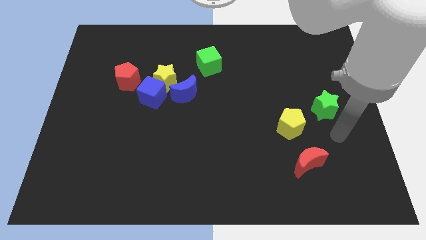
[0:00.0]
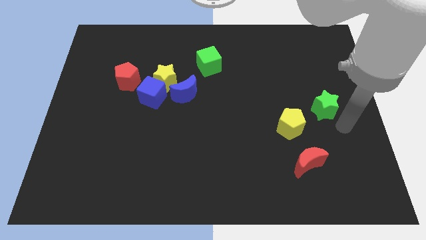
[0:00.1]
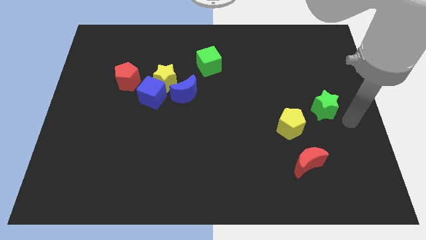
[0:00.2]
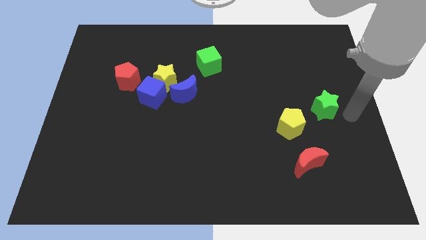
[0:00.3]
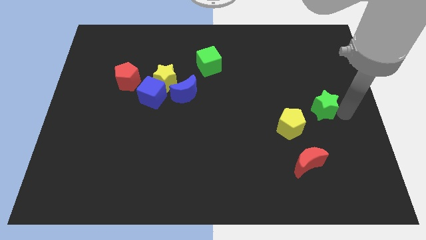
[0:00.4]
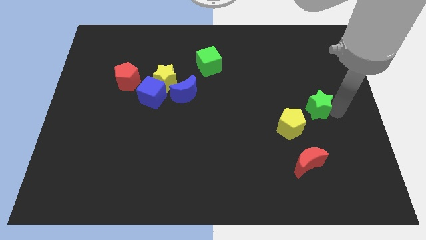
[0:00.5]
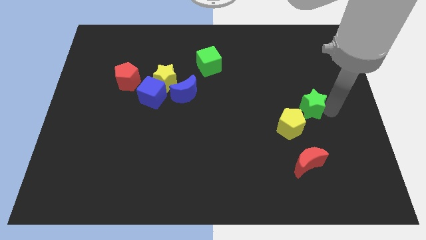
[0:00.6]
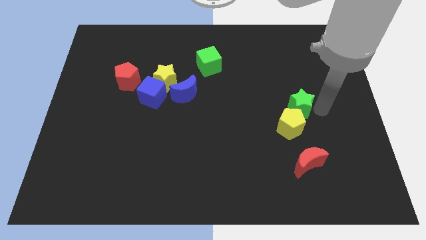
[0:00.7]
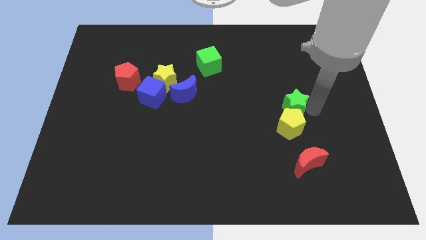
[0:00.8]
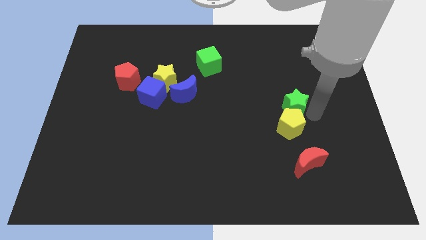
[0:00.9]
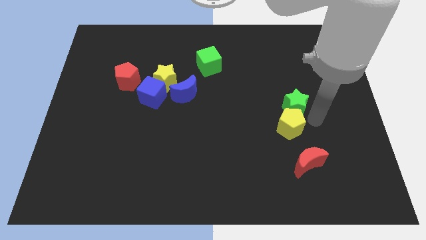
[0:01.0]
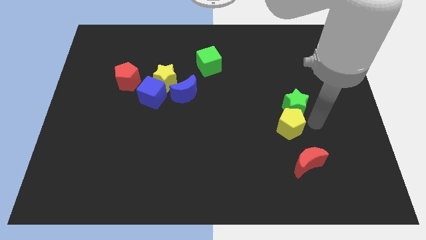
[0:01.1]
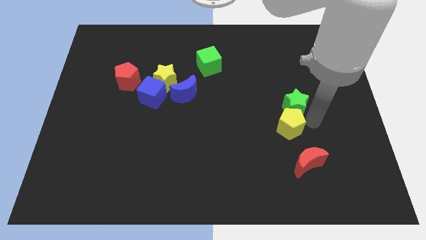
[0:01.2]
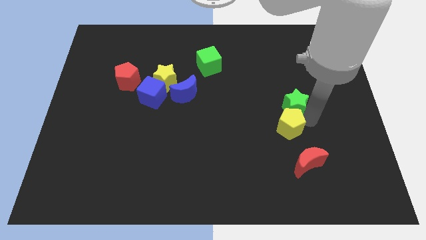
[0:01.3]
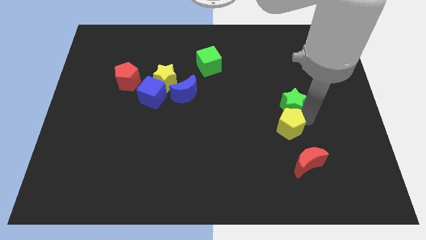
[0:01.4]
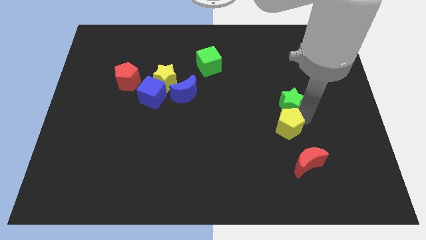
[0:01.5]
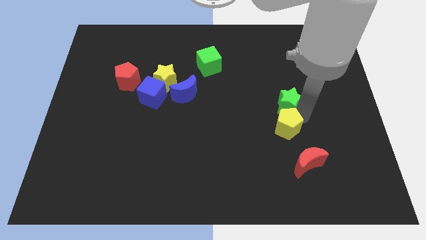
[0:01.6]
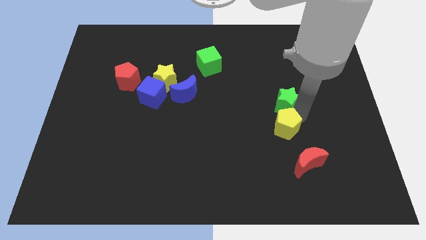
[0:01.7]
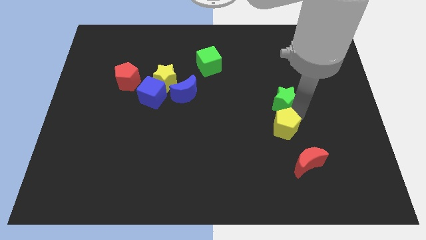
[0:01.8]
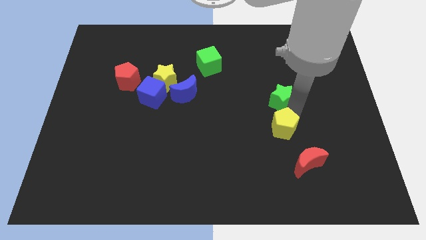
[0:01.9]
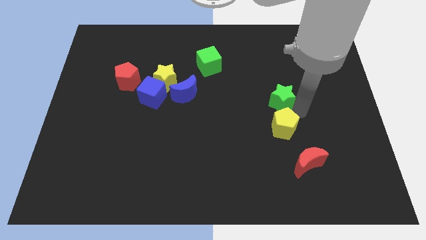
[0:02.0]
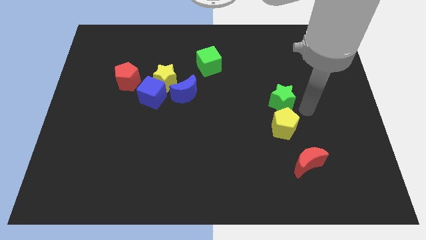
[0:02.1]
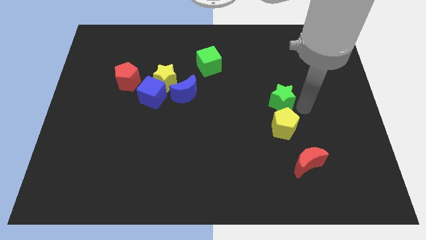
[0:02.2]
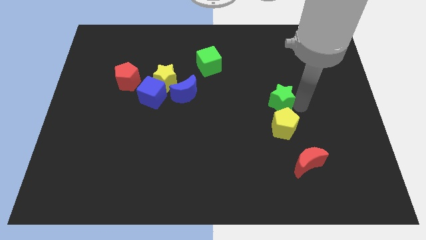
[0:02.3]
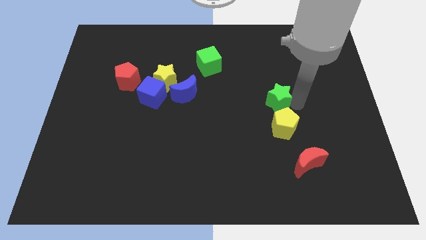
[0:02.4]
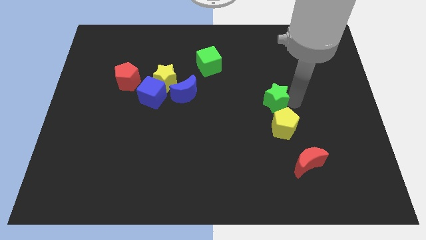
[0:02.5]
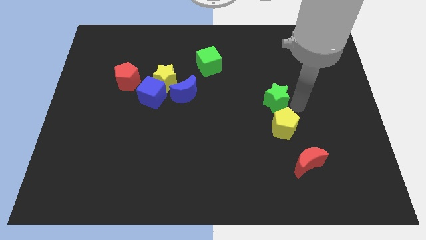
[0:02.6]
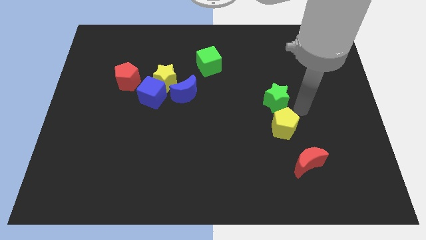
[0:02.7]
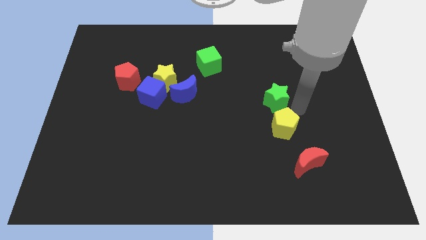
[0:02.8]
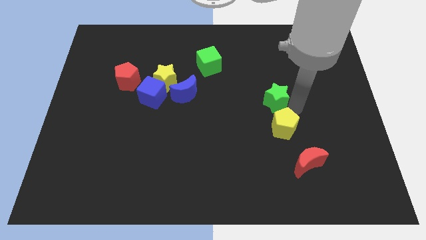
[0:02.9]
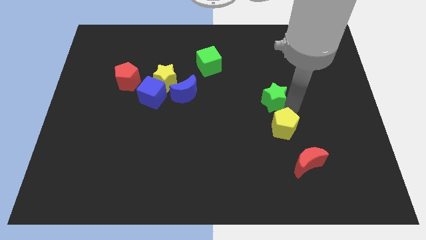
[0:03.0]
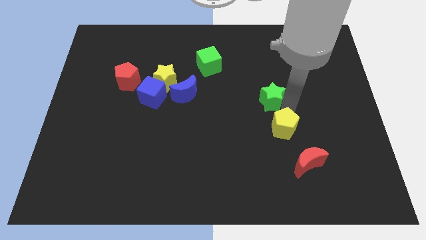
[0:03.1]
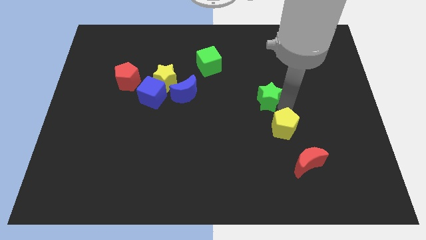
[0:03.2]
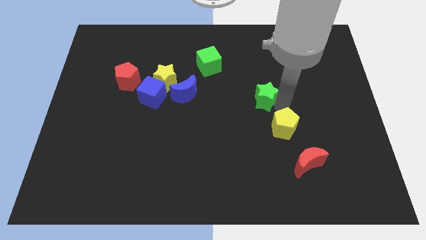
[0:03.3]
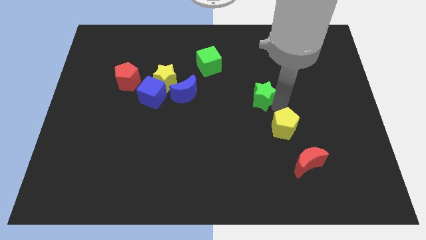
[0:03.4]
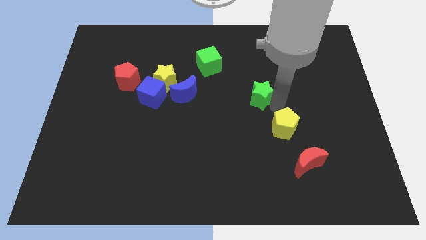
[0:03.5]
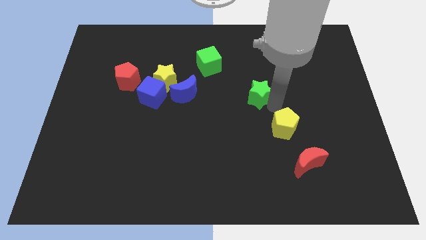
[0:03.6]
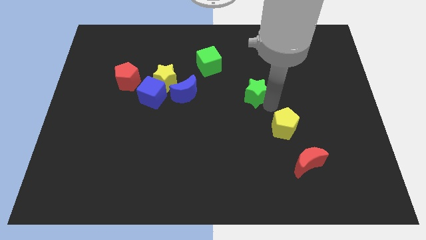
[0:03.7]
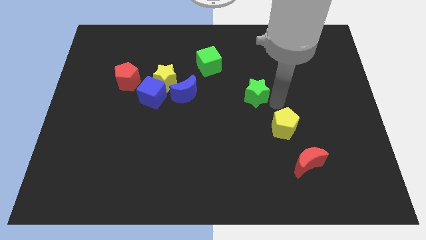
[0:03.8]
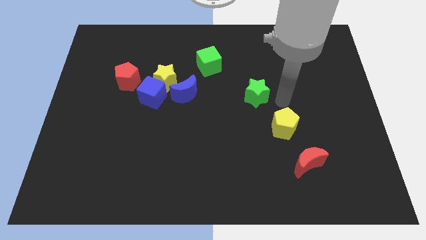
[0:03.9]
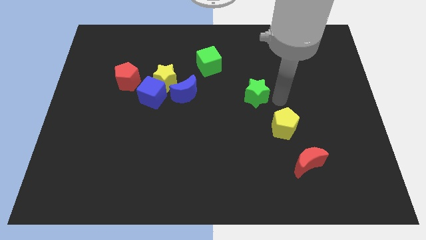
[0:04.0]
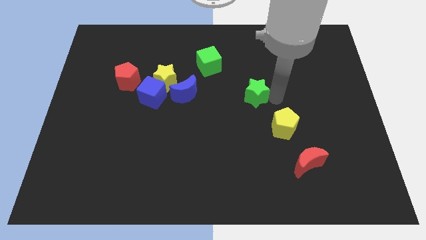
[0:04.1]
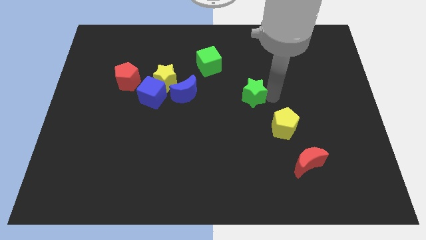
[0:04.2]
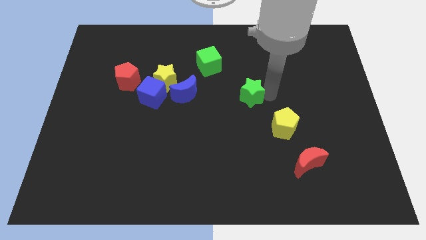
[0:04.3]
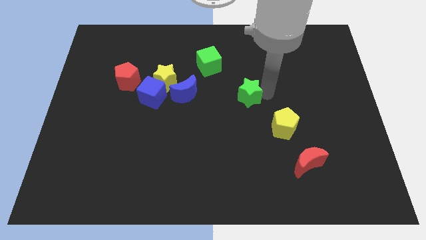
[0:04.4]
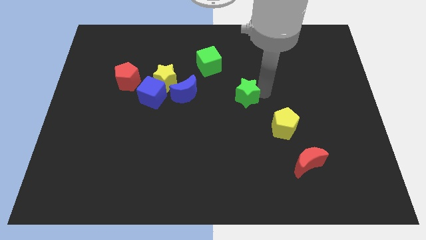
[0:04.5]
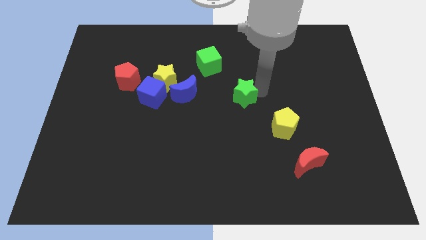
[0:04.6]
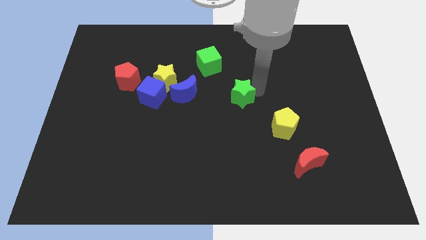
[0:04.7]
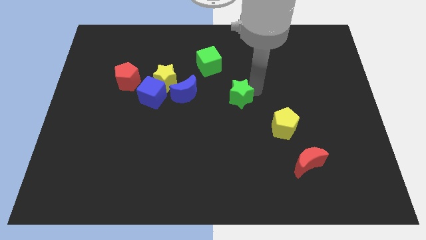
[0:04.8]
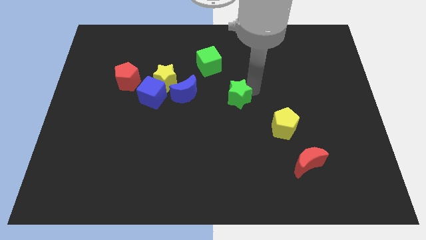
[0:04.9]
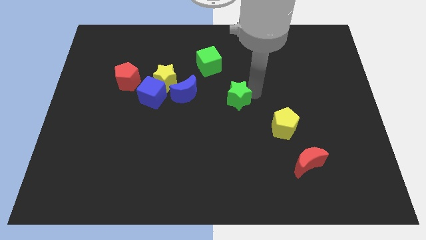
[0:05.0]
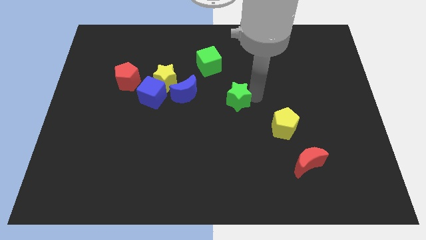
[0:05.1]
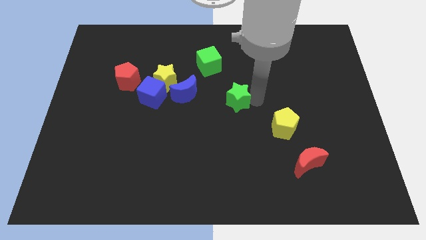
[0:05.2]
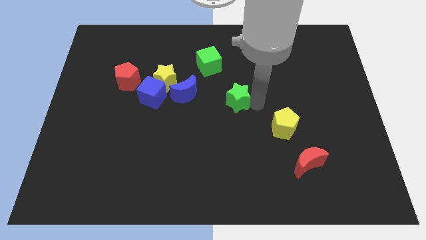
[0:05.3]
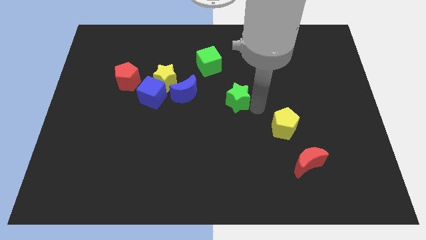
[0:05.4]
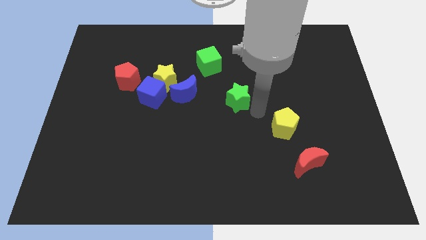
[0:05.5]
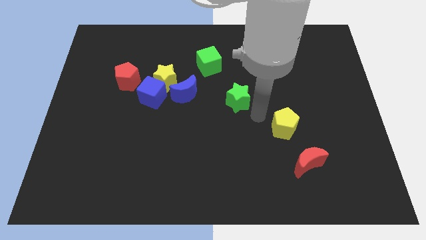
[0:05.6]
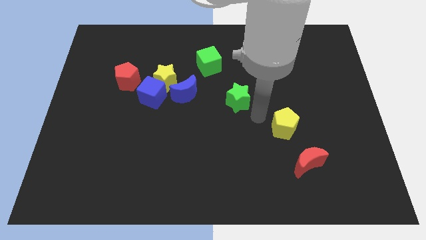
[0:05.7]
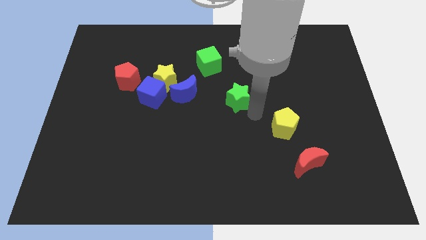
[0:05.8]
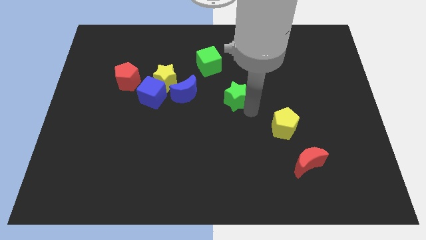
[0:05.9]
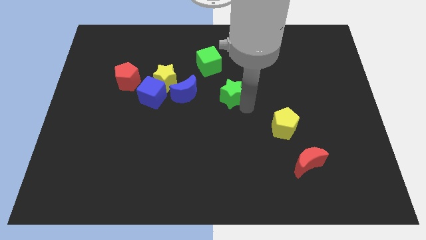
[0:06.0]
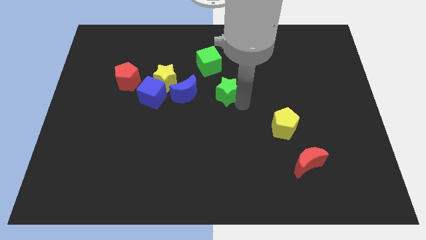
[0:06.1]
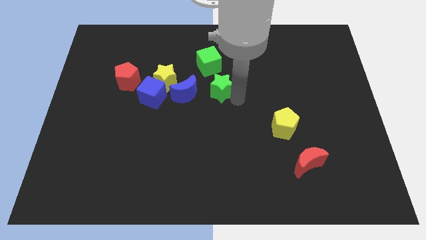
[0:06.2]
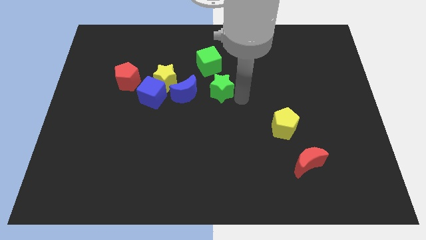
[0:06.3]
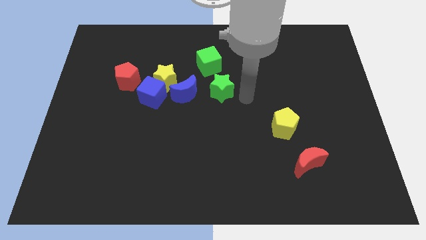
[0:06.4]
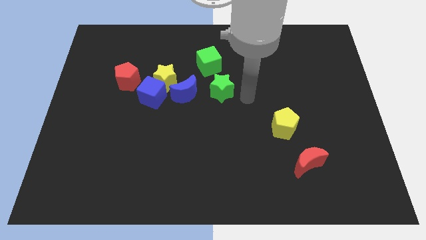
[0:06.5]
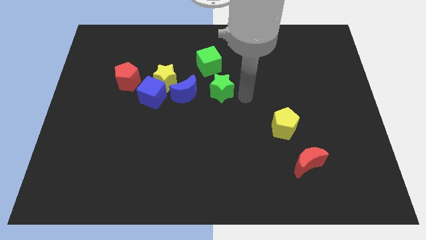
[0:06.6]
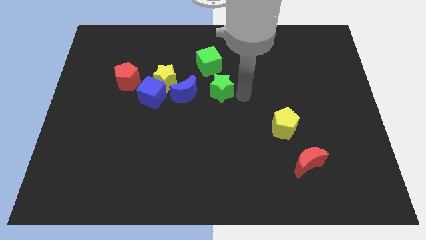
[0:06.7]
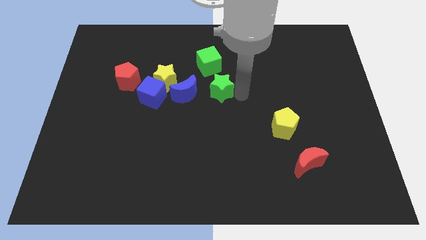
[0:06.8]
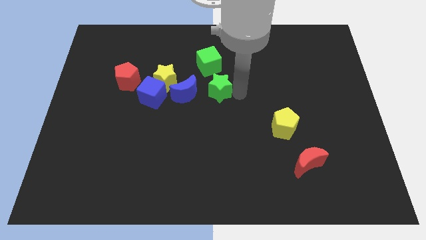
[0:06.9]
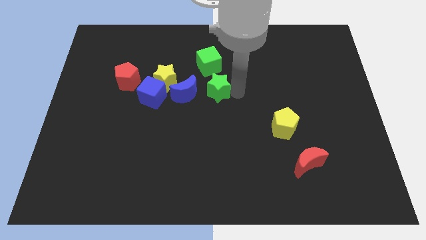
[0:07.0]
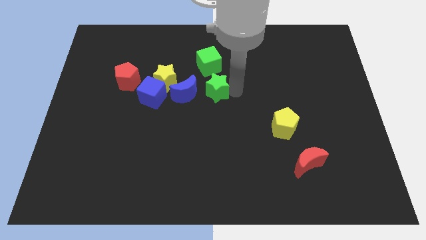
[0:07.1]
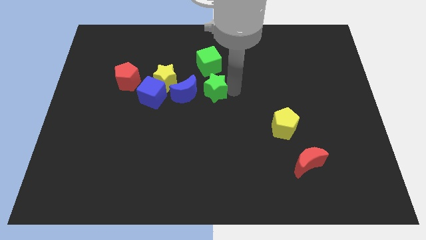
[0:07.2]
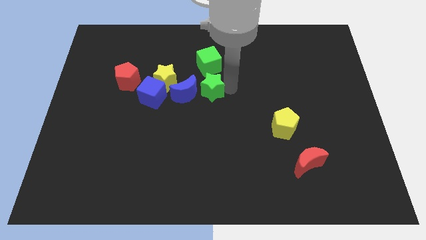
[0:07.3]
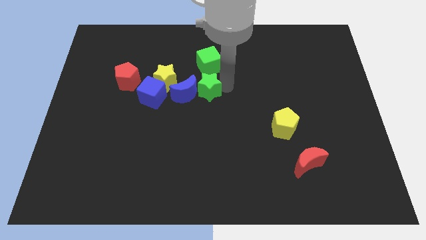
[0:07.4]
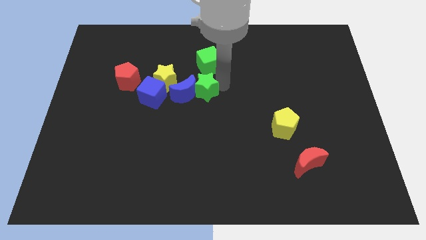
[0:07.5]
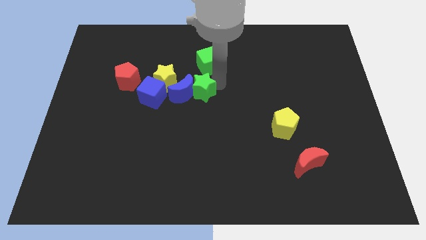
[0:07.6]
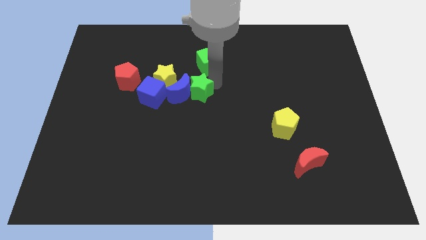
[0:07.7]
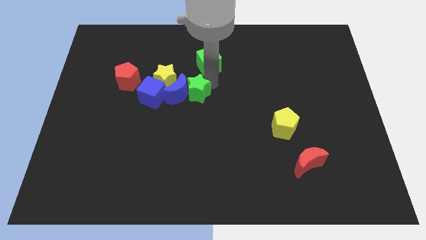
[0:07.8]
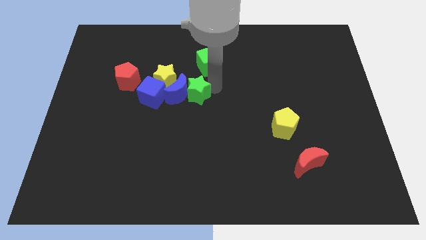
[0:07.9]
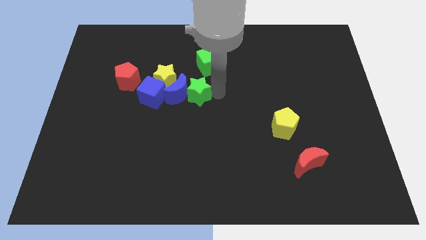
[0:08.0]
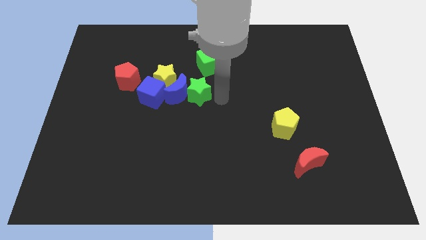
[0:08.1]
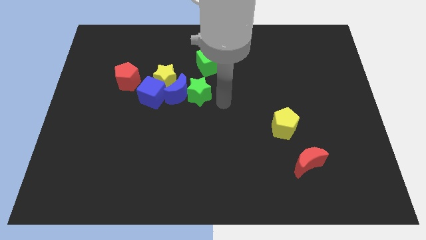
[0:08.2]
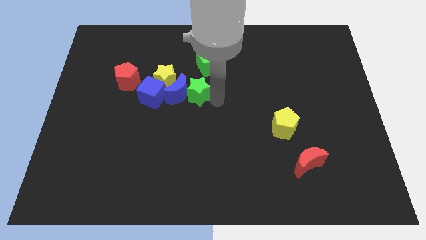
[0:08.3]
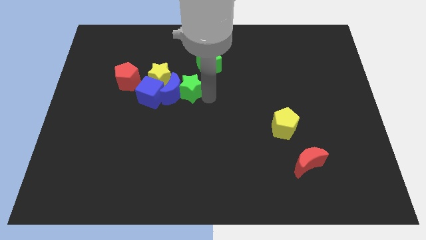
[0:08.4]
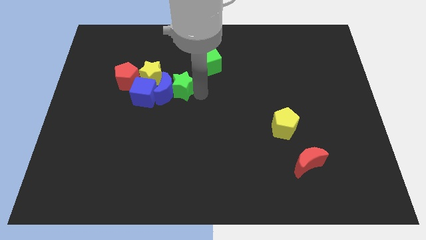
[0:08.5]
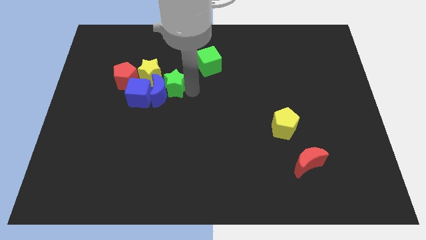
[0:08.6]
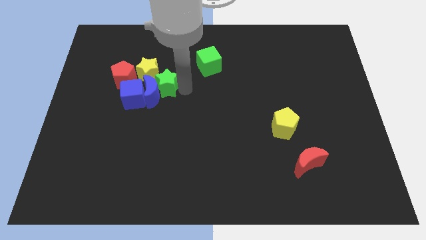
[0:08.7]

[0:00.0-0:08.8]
slide the green star next to the yellow star
